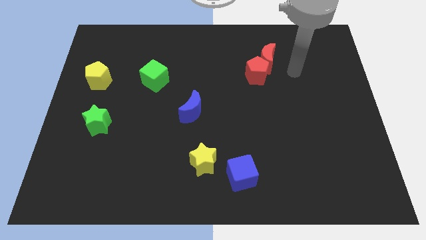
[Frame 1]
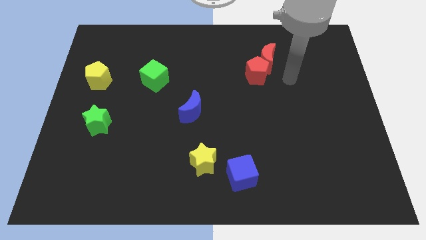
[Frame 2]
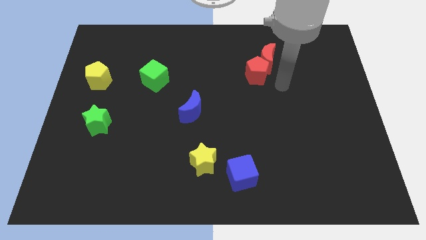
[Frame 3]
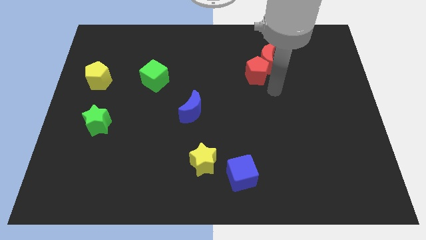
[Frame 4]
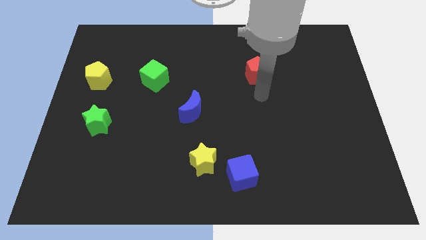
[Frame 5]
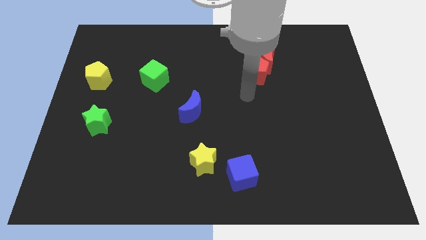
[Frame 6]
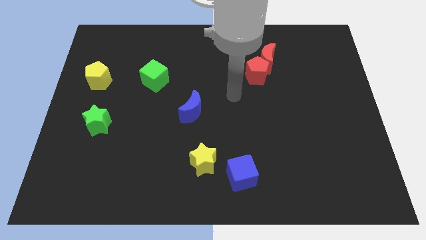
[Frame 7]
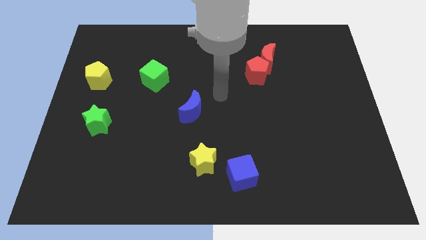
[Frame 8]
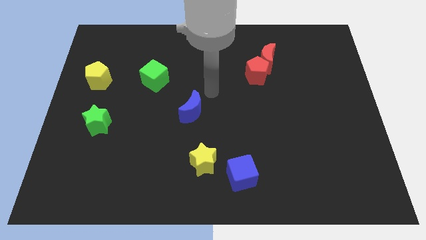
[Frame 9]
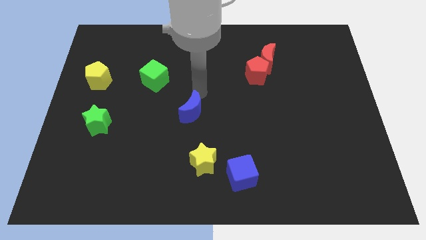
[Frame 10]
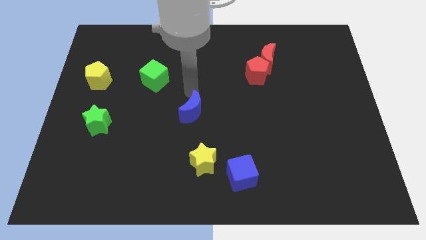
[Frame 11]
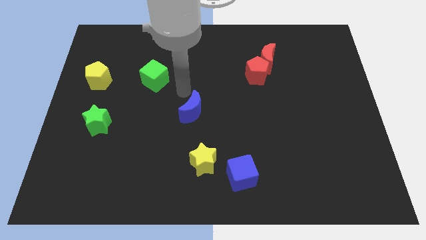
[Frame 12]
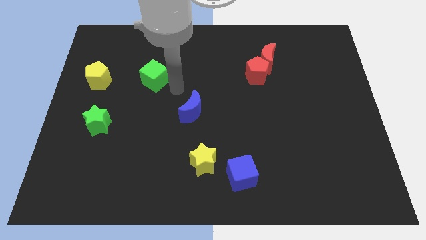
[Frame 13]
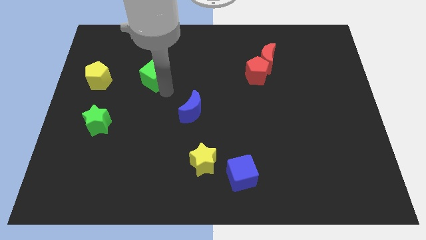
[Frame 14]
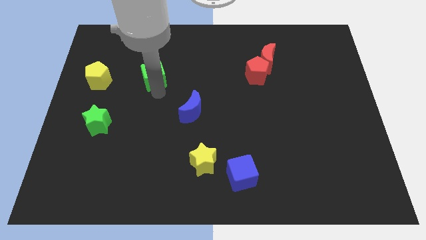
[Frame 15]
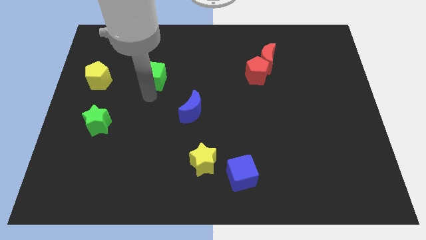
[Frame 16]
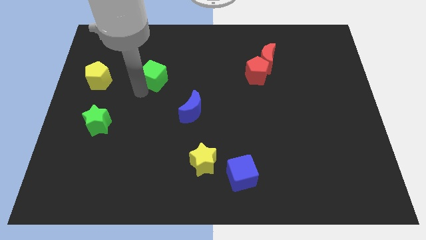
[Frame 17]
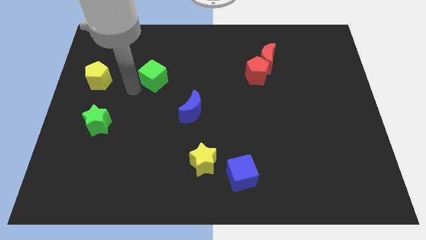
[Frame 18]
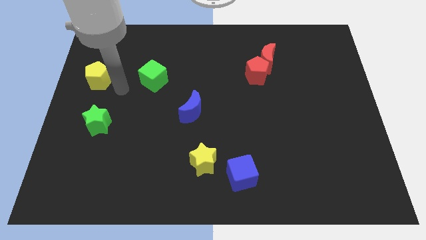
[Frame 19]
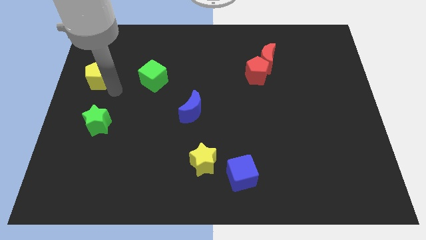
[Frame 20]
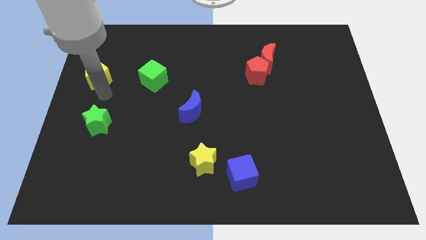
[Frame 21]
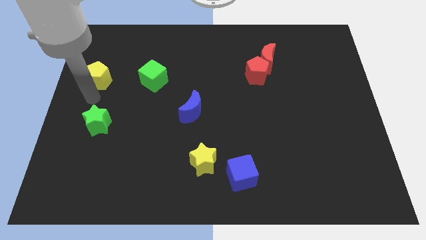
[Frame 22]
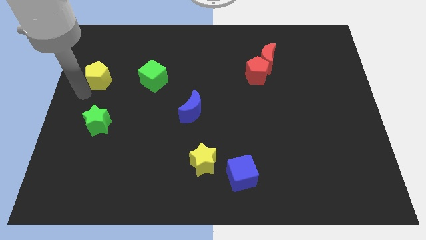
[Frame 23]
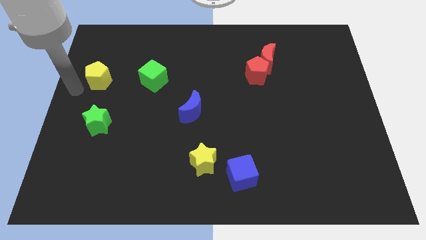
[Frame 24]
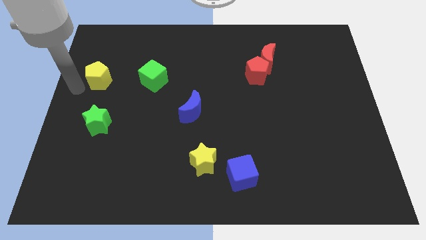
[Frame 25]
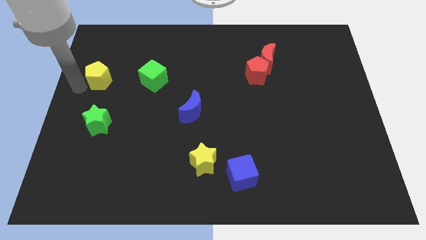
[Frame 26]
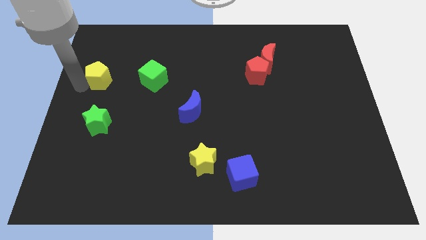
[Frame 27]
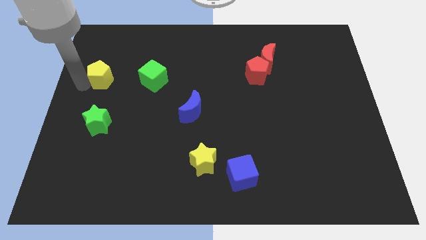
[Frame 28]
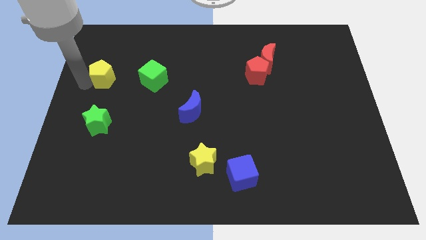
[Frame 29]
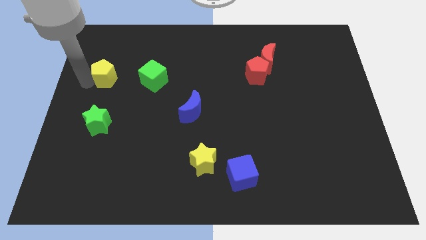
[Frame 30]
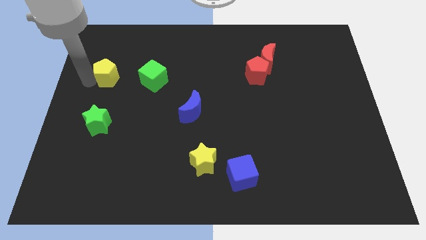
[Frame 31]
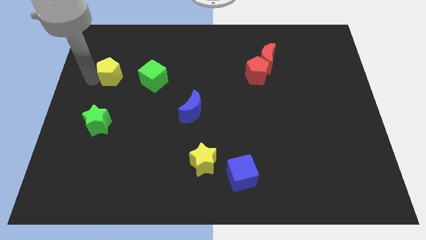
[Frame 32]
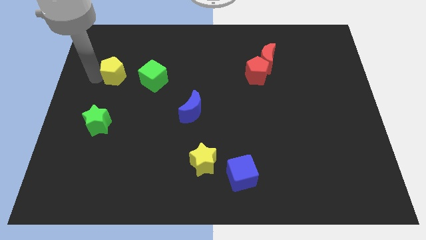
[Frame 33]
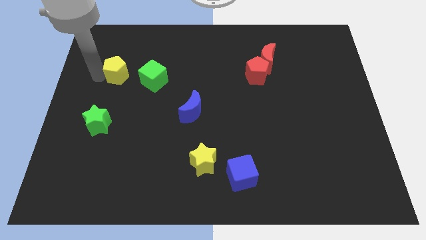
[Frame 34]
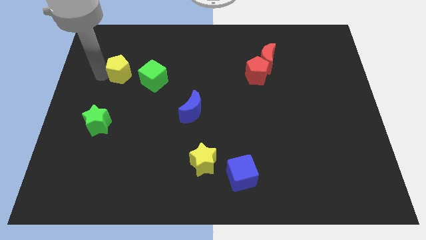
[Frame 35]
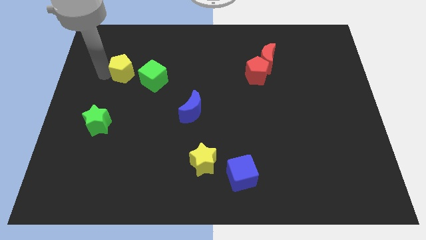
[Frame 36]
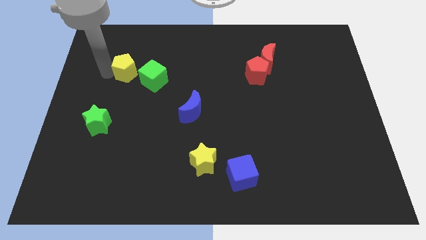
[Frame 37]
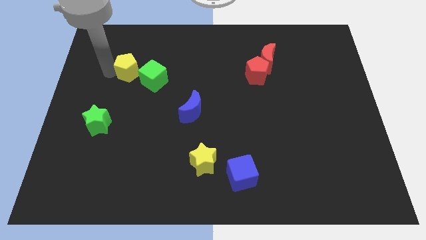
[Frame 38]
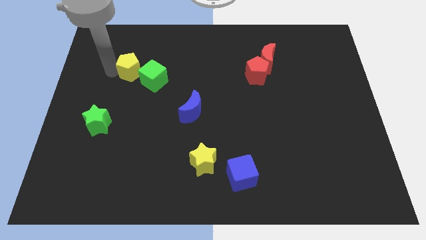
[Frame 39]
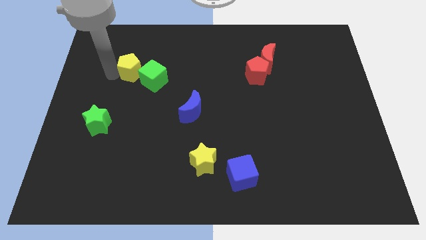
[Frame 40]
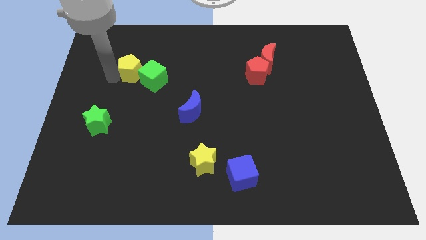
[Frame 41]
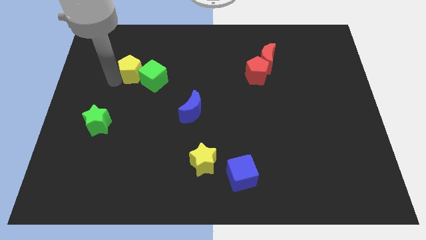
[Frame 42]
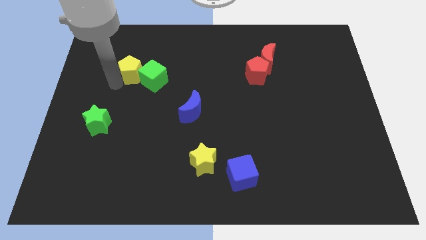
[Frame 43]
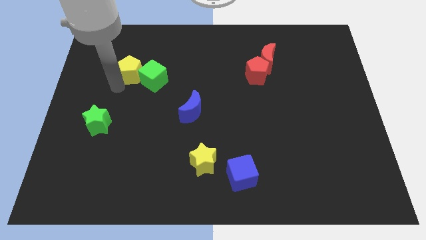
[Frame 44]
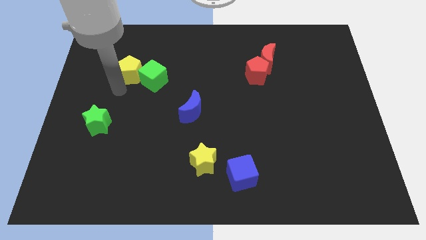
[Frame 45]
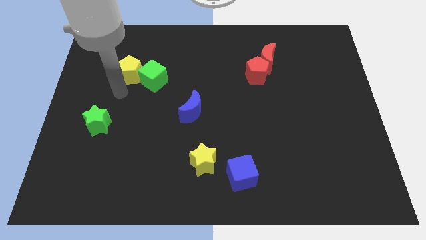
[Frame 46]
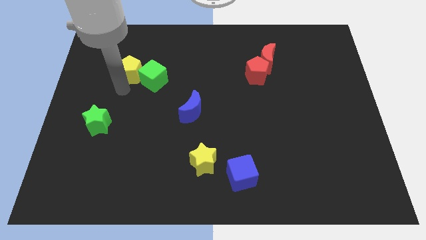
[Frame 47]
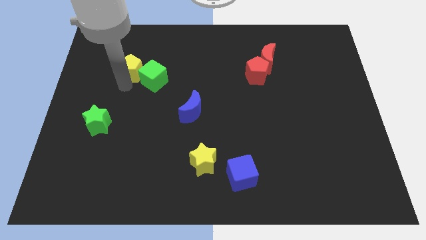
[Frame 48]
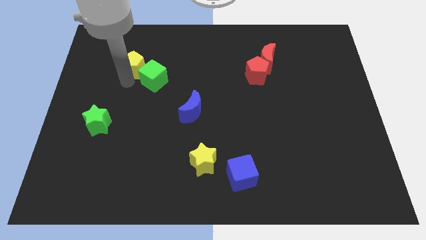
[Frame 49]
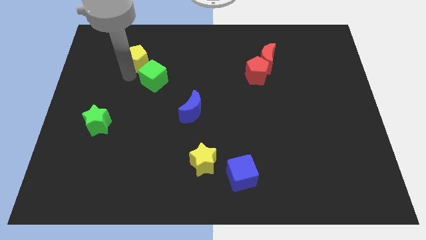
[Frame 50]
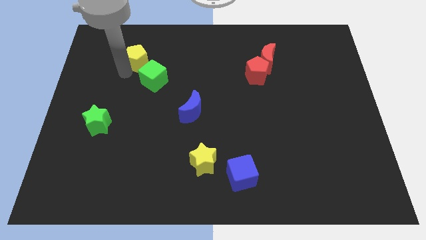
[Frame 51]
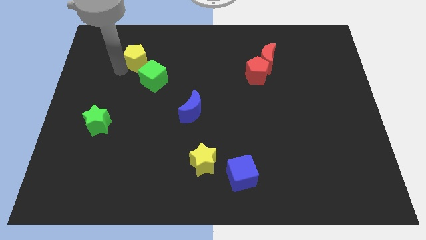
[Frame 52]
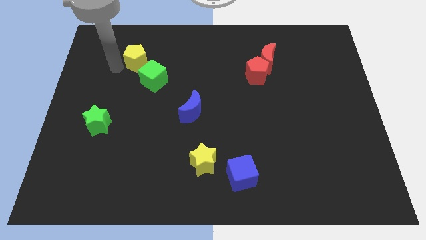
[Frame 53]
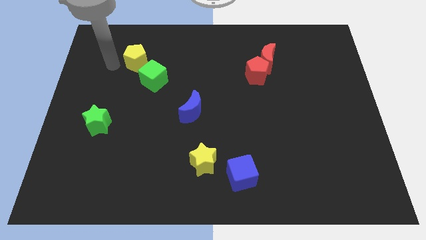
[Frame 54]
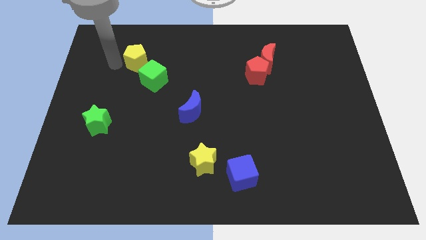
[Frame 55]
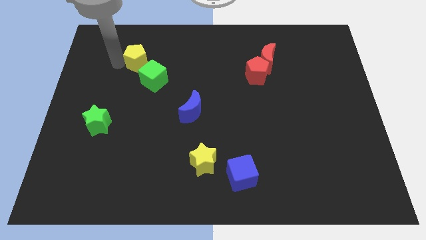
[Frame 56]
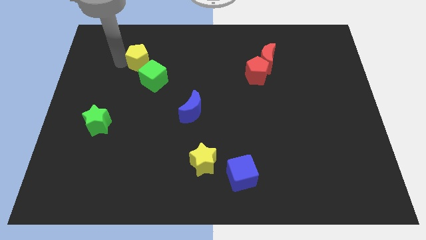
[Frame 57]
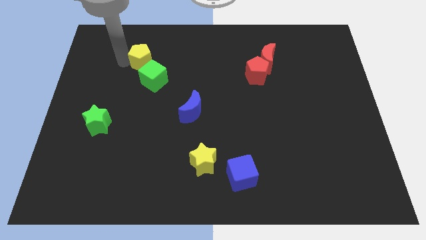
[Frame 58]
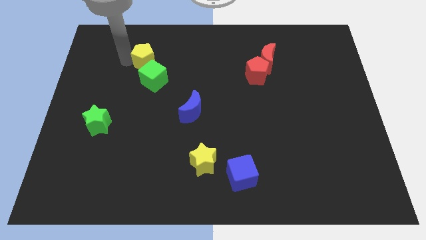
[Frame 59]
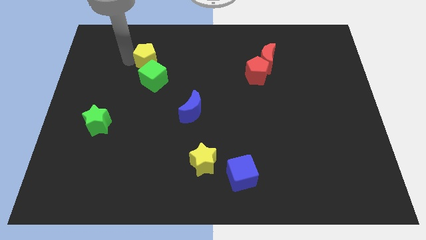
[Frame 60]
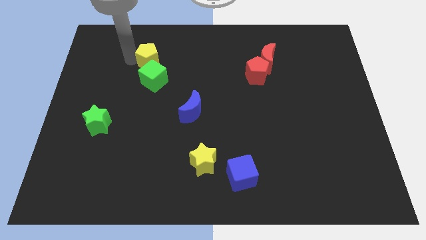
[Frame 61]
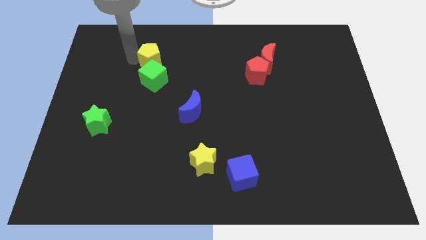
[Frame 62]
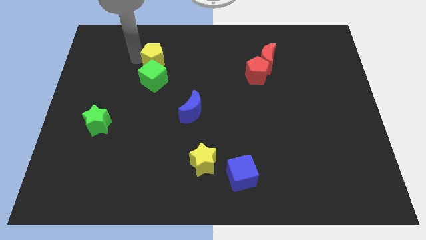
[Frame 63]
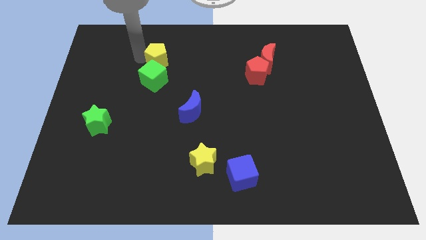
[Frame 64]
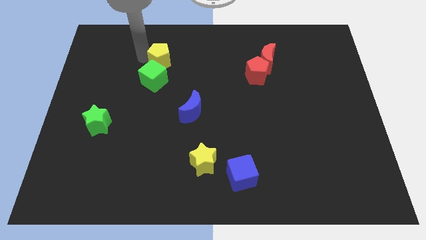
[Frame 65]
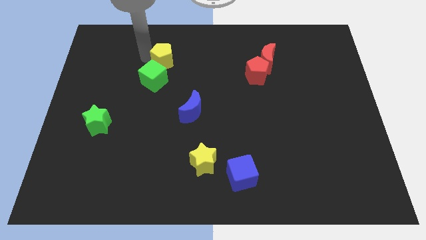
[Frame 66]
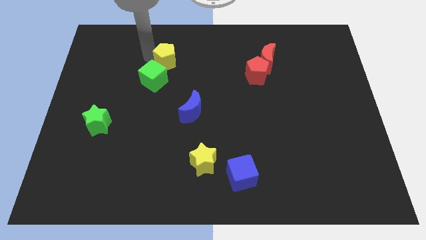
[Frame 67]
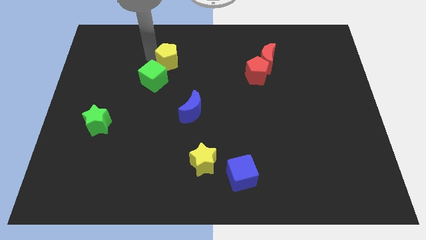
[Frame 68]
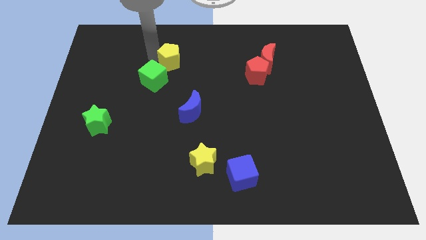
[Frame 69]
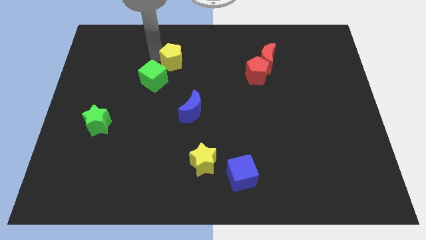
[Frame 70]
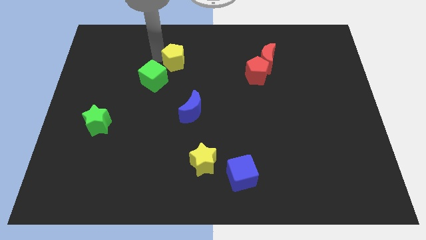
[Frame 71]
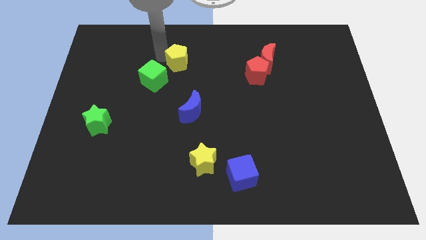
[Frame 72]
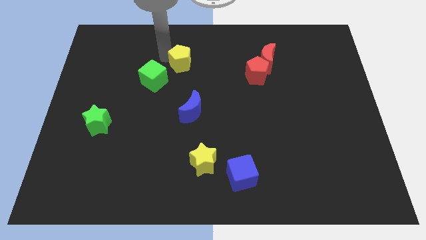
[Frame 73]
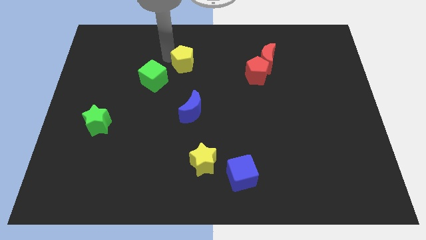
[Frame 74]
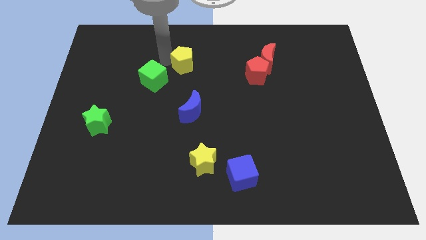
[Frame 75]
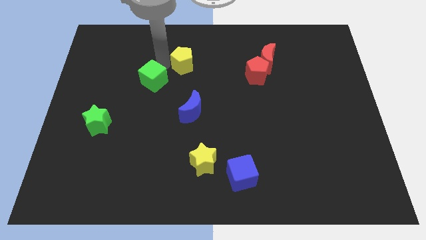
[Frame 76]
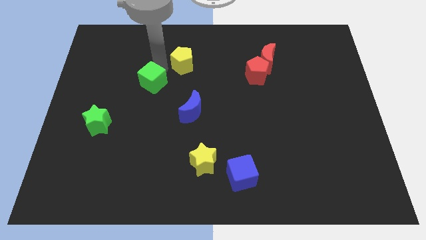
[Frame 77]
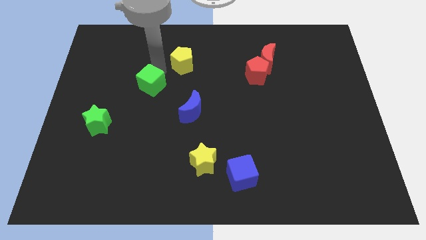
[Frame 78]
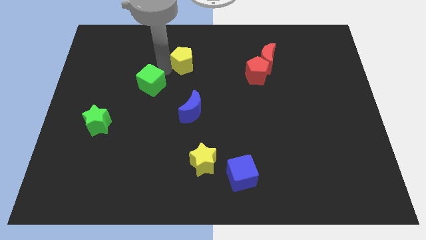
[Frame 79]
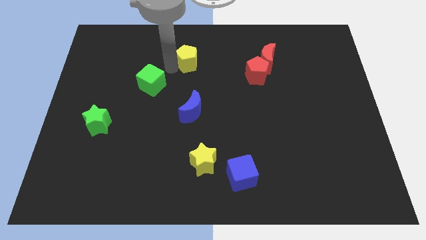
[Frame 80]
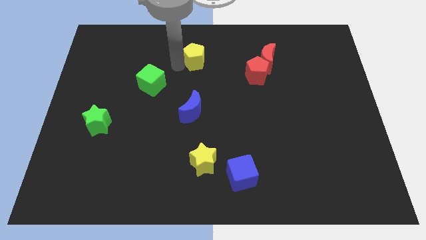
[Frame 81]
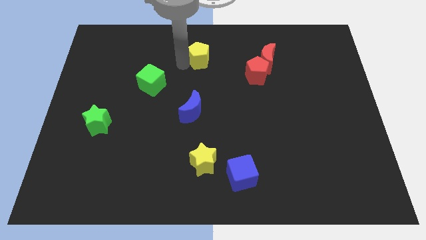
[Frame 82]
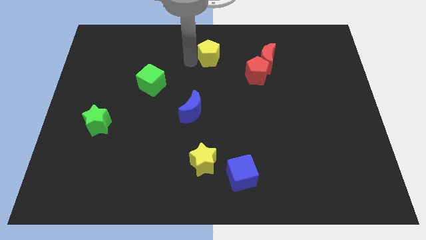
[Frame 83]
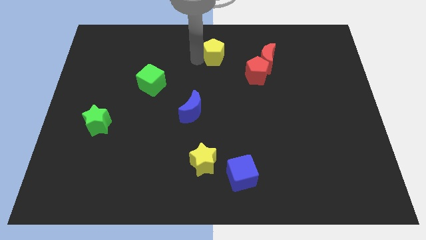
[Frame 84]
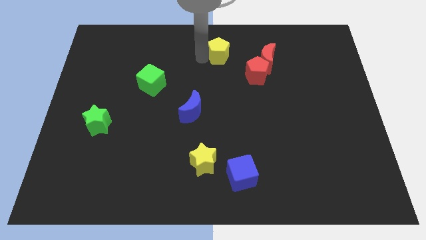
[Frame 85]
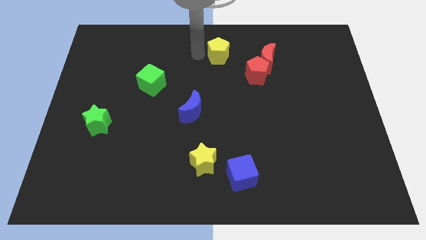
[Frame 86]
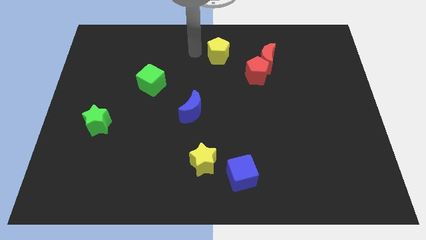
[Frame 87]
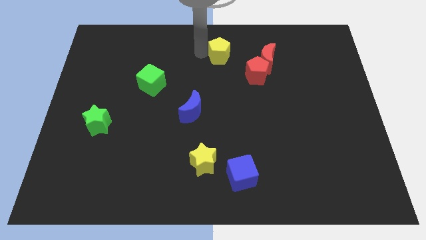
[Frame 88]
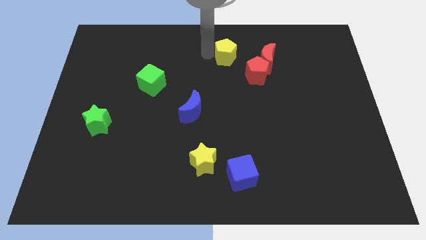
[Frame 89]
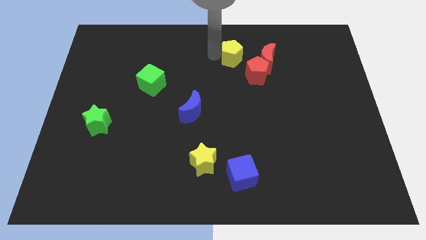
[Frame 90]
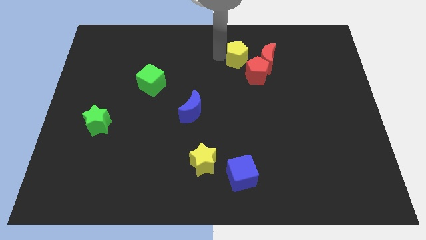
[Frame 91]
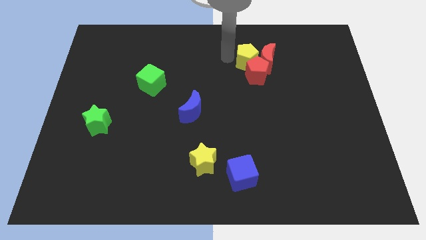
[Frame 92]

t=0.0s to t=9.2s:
slide the yellow pentagon to the red moon
